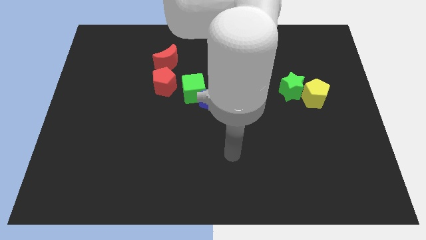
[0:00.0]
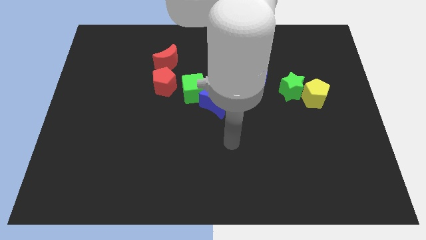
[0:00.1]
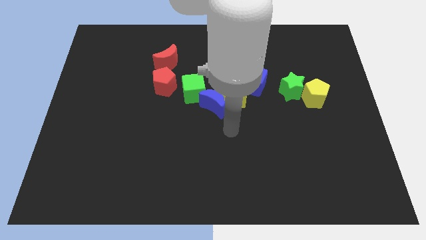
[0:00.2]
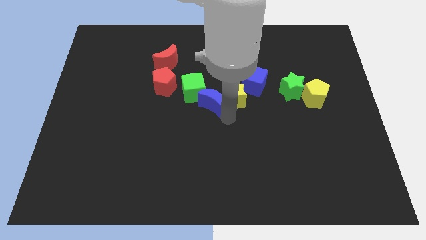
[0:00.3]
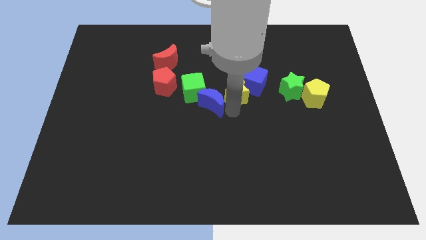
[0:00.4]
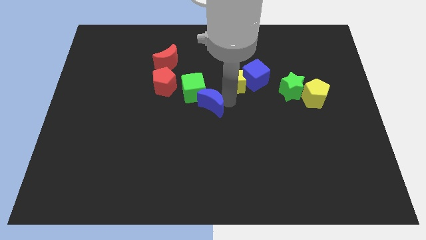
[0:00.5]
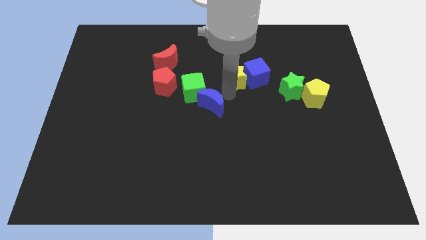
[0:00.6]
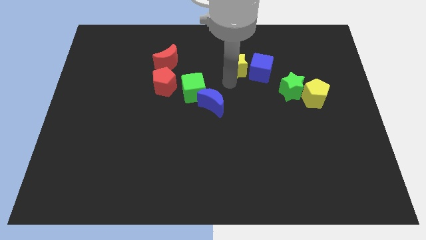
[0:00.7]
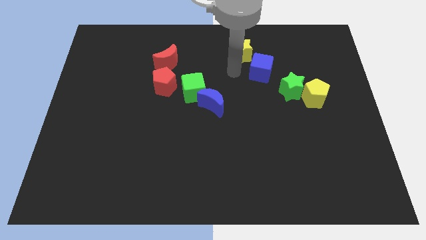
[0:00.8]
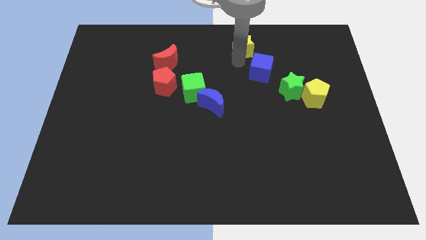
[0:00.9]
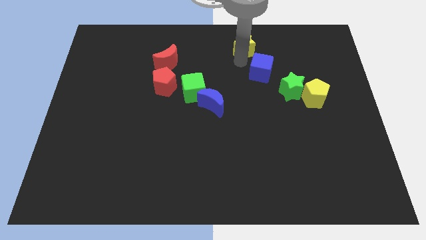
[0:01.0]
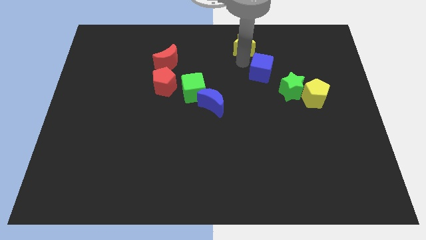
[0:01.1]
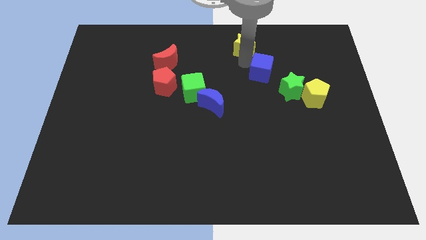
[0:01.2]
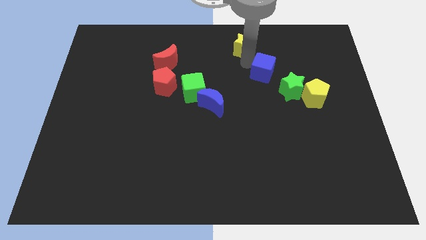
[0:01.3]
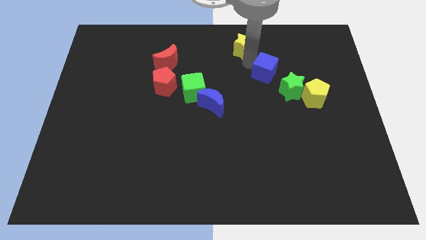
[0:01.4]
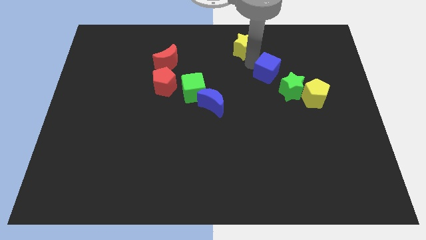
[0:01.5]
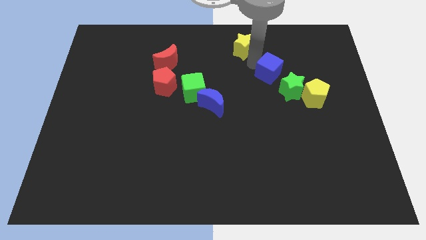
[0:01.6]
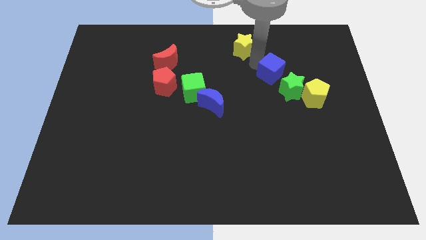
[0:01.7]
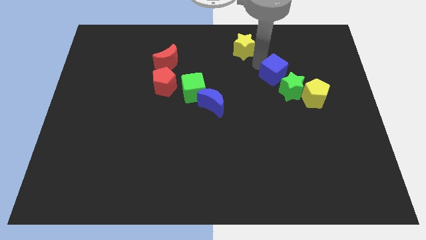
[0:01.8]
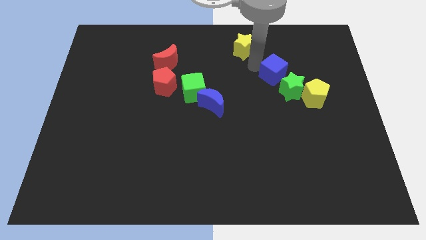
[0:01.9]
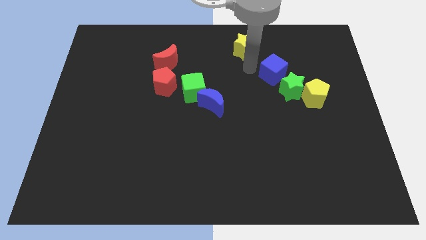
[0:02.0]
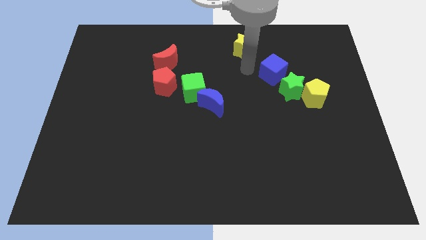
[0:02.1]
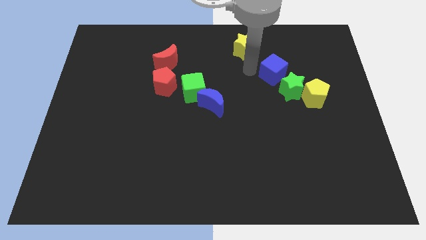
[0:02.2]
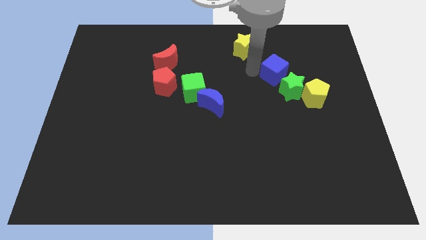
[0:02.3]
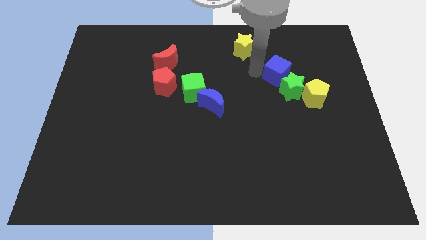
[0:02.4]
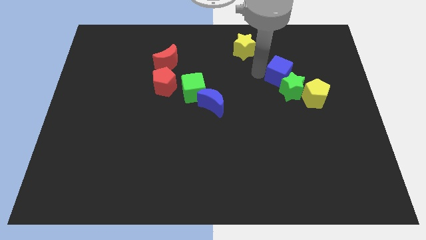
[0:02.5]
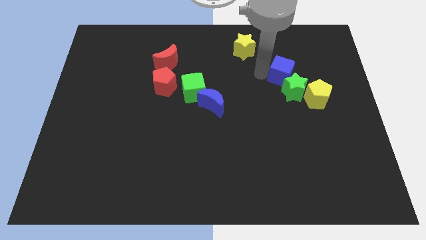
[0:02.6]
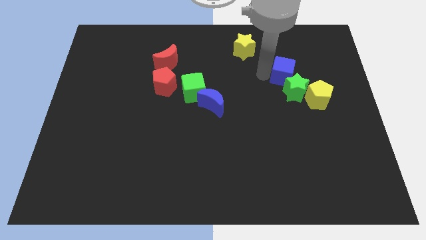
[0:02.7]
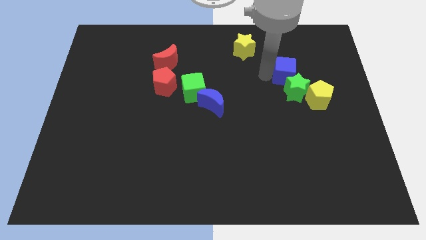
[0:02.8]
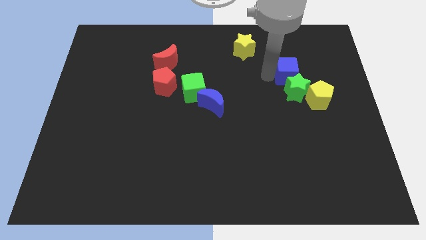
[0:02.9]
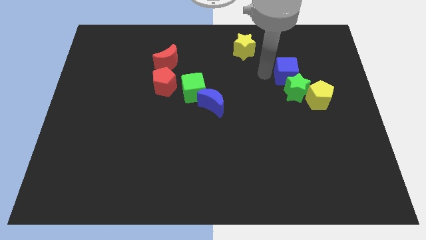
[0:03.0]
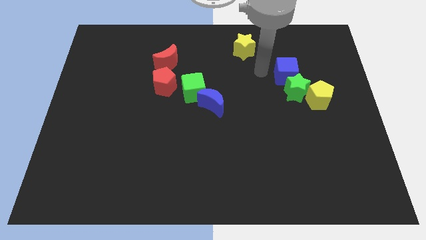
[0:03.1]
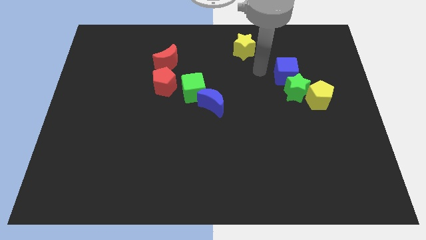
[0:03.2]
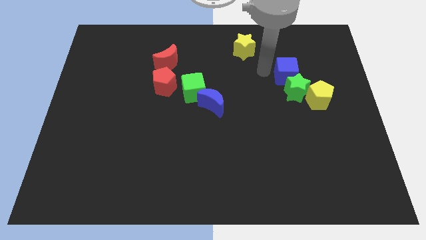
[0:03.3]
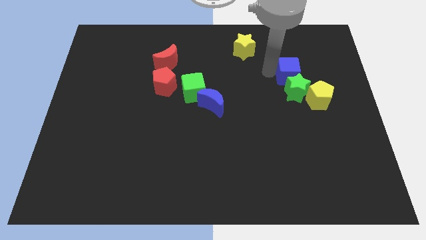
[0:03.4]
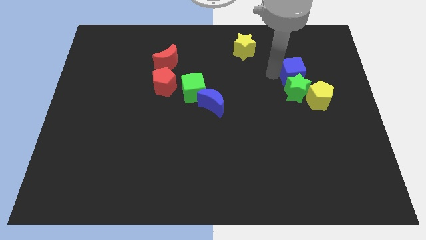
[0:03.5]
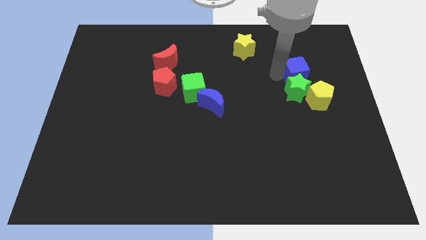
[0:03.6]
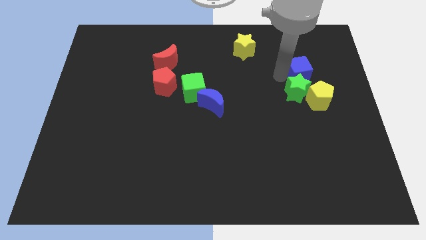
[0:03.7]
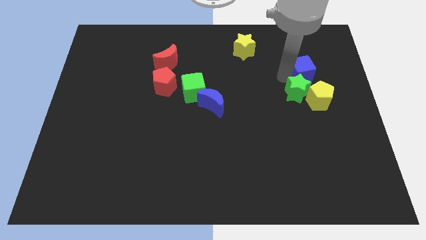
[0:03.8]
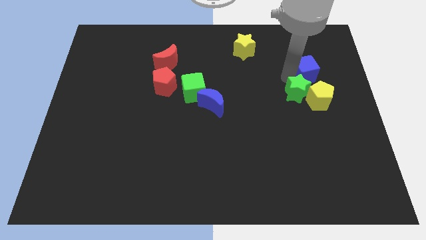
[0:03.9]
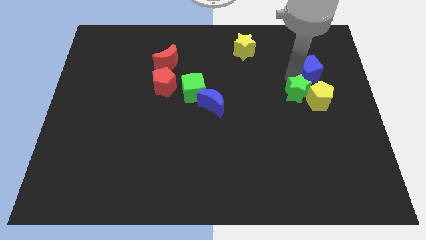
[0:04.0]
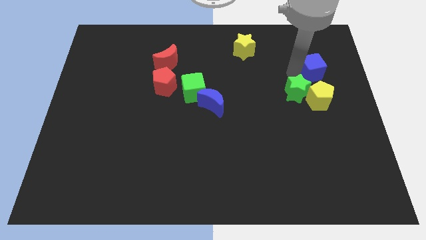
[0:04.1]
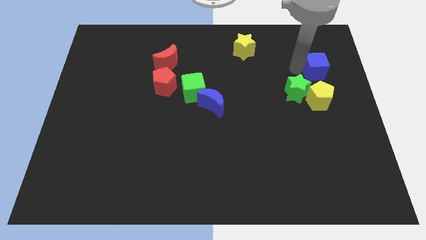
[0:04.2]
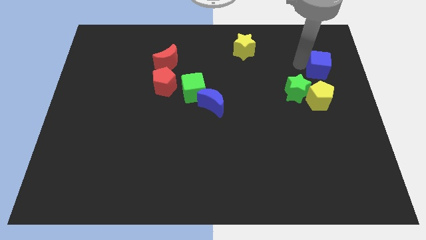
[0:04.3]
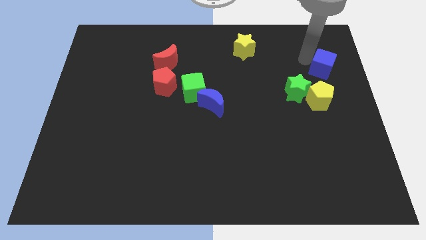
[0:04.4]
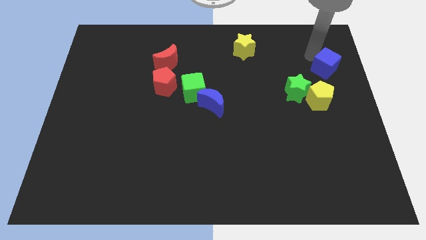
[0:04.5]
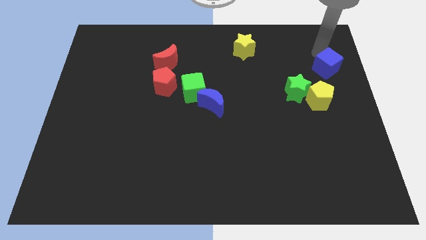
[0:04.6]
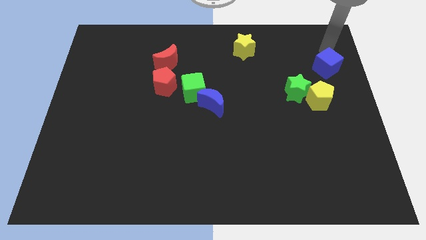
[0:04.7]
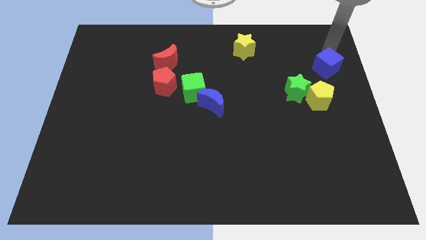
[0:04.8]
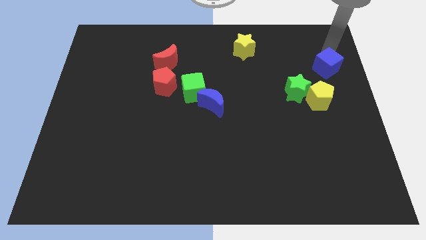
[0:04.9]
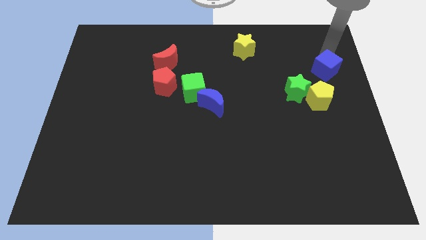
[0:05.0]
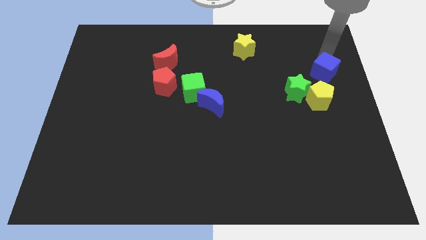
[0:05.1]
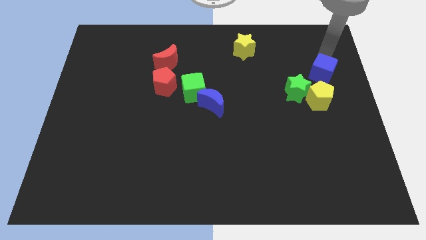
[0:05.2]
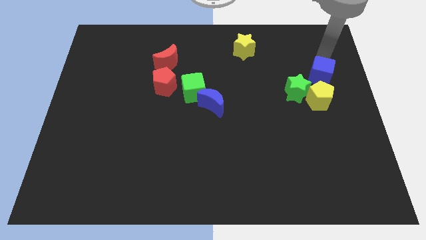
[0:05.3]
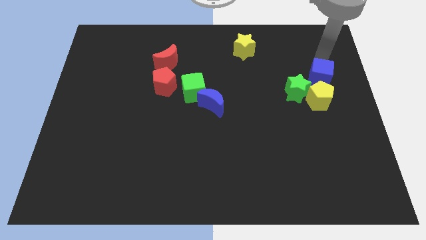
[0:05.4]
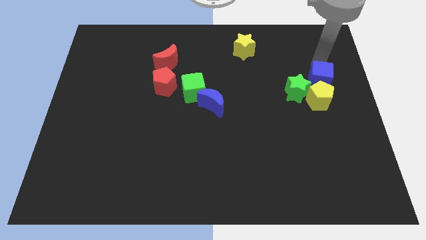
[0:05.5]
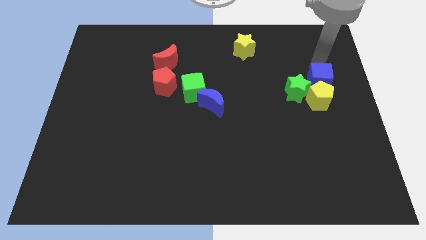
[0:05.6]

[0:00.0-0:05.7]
slide the blue cube close to the yellow pentagon

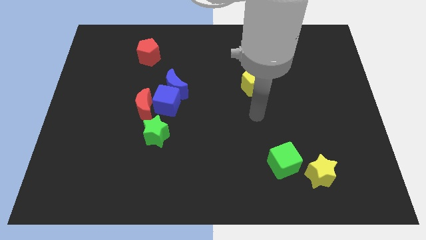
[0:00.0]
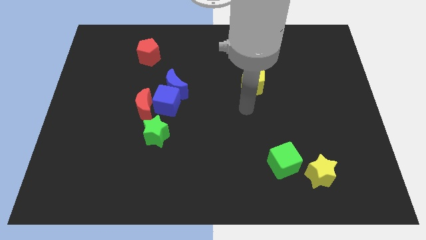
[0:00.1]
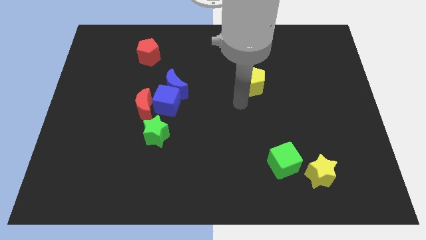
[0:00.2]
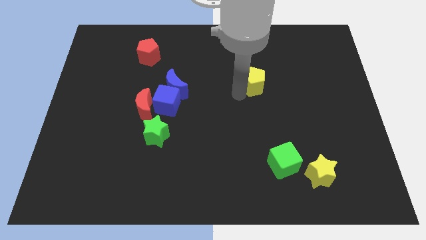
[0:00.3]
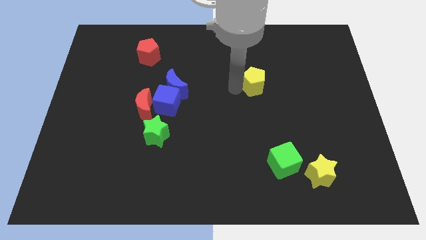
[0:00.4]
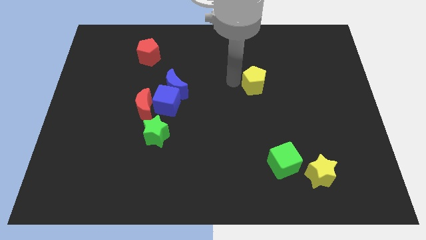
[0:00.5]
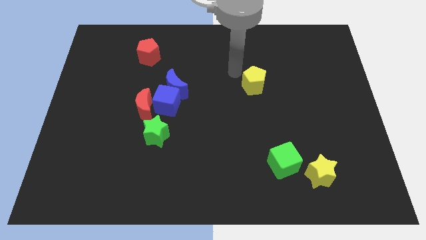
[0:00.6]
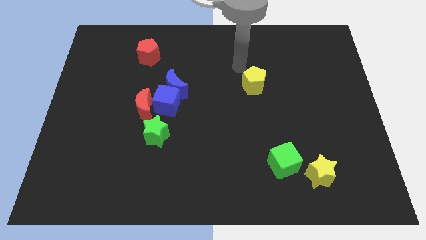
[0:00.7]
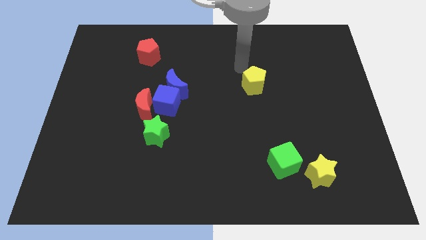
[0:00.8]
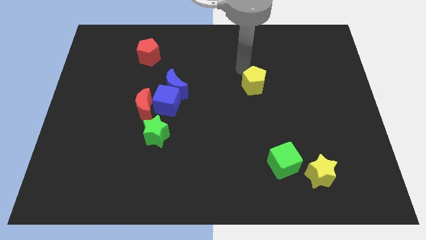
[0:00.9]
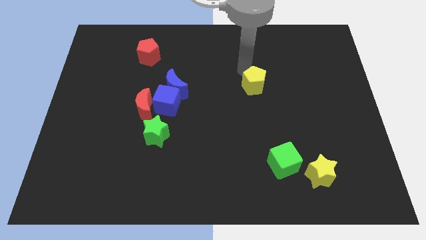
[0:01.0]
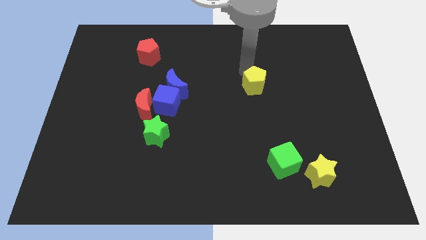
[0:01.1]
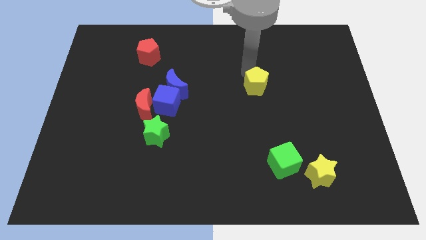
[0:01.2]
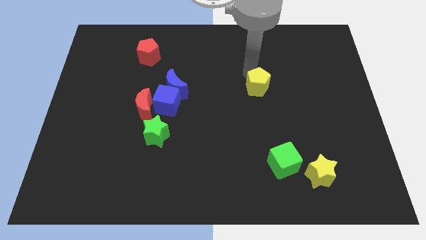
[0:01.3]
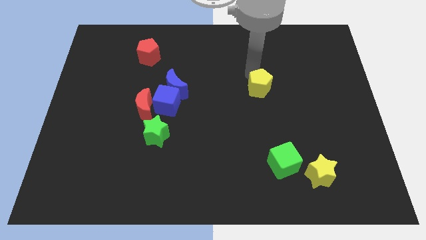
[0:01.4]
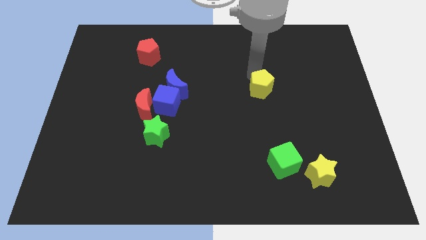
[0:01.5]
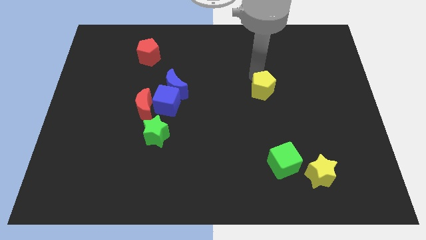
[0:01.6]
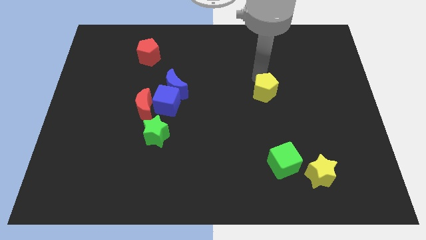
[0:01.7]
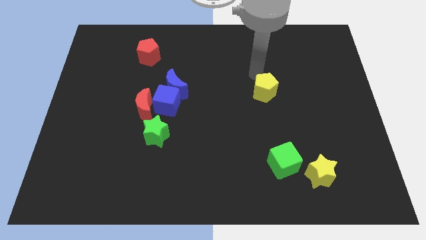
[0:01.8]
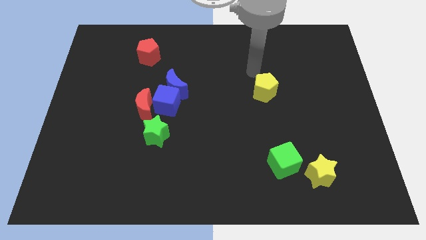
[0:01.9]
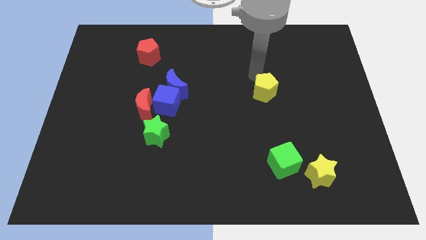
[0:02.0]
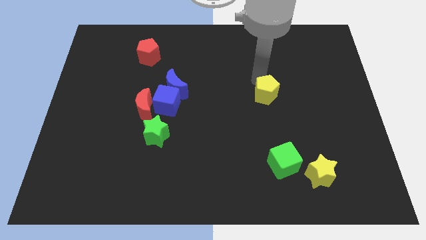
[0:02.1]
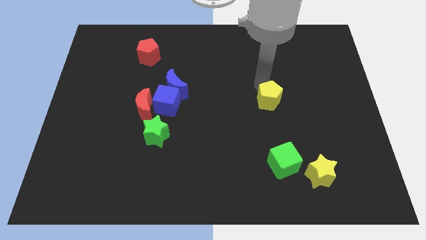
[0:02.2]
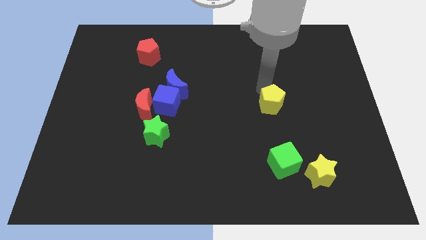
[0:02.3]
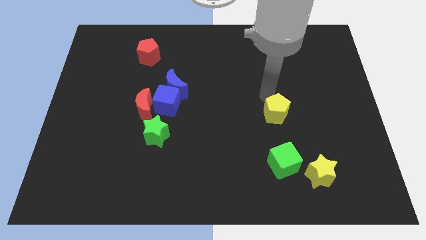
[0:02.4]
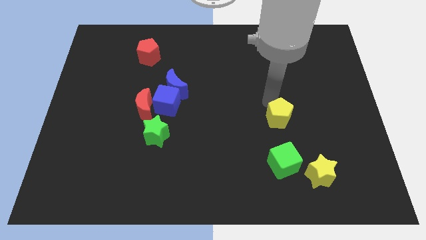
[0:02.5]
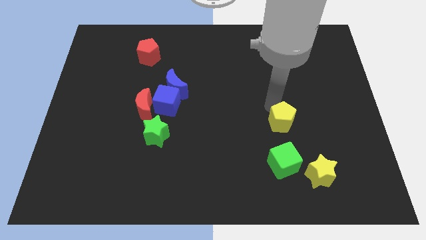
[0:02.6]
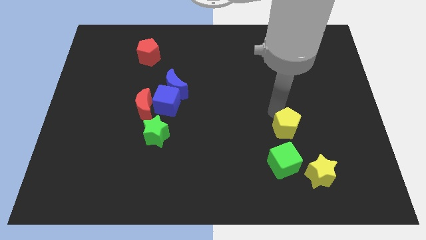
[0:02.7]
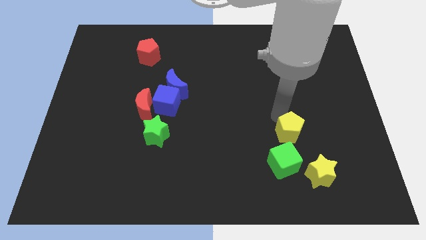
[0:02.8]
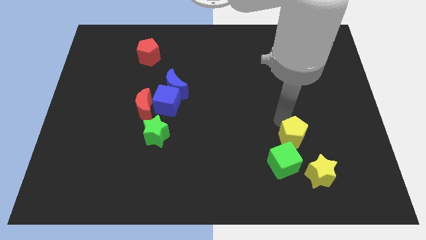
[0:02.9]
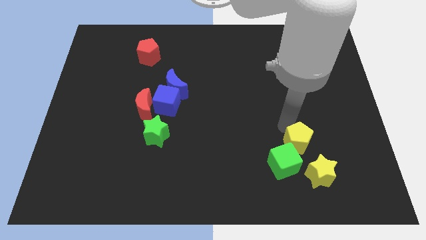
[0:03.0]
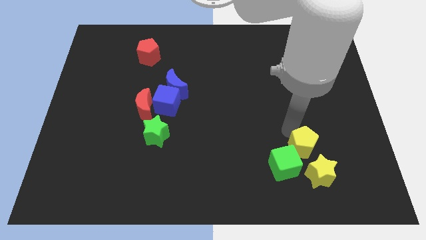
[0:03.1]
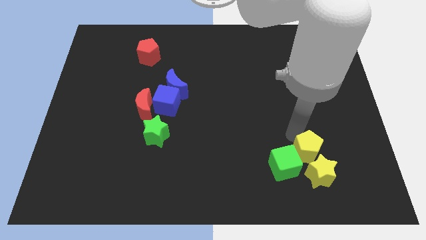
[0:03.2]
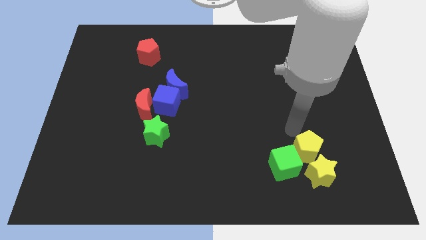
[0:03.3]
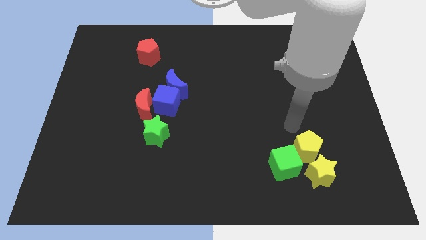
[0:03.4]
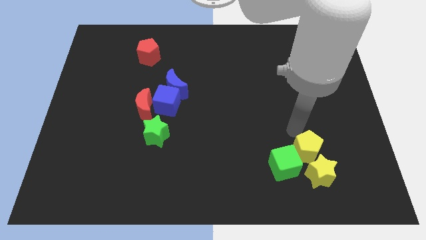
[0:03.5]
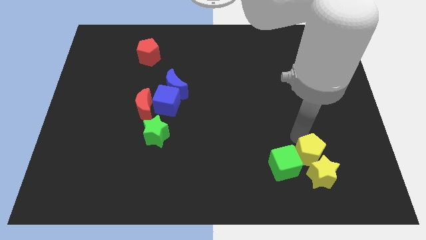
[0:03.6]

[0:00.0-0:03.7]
move the yellow pentagon close to the yellow star
